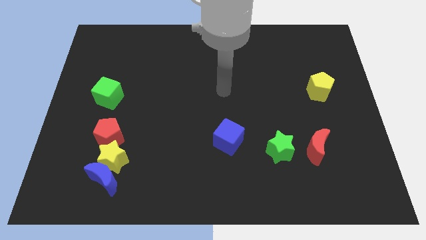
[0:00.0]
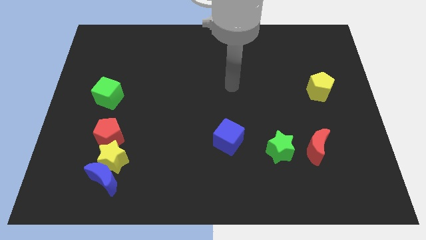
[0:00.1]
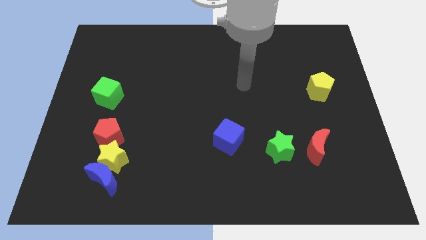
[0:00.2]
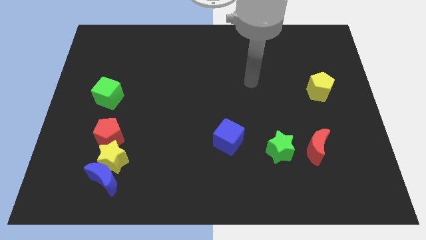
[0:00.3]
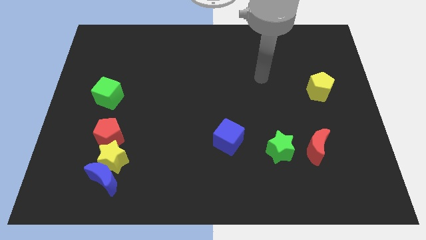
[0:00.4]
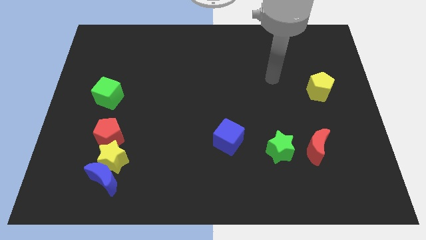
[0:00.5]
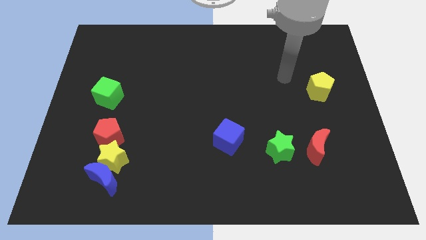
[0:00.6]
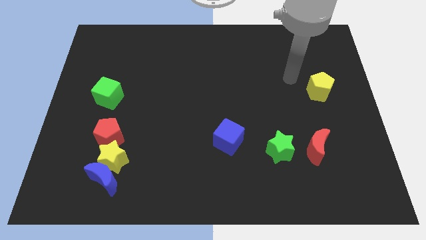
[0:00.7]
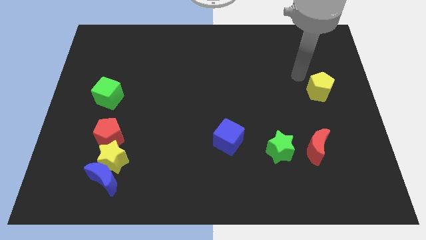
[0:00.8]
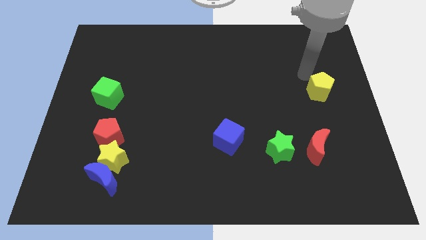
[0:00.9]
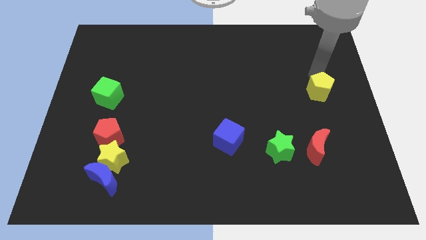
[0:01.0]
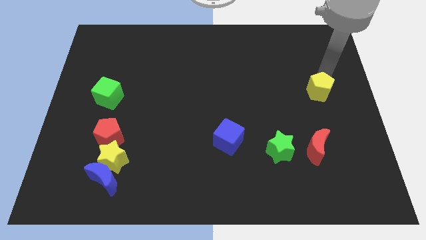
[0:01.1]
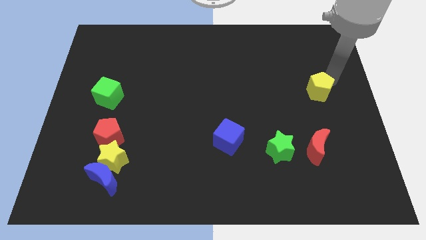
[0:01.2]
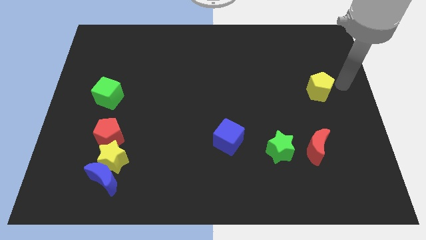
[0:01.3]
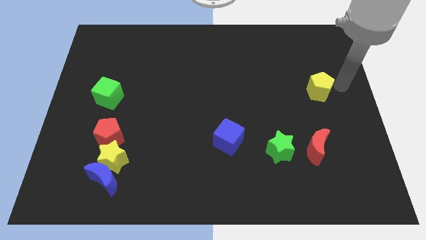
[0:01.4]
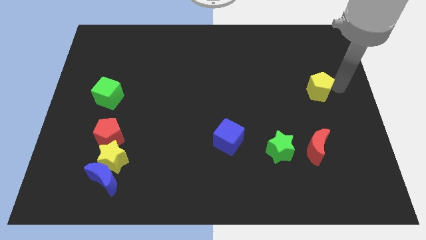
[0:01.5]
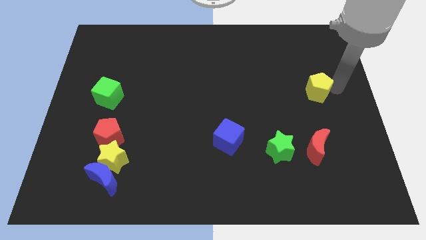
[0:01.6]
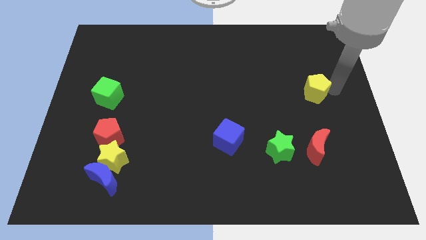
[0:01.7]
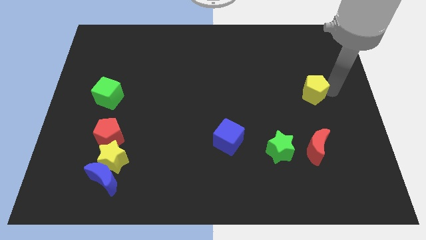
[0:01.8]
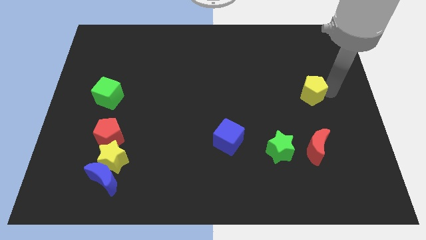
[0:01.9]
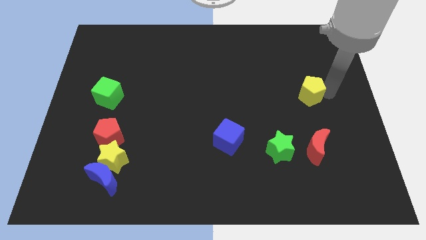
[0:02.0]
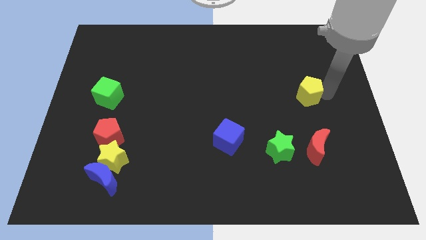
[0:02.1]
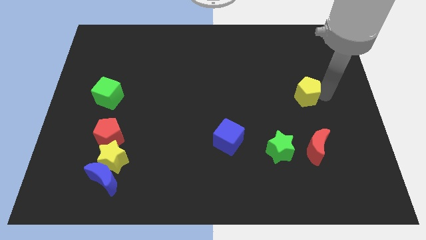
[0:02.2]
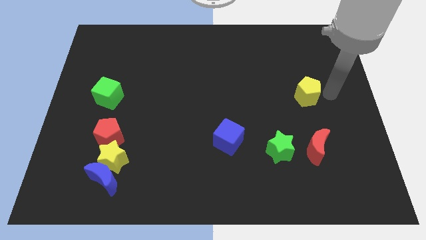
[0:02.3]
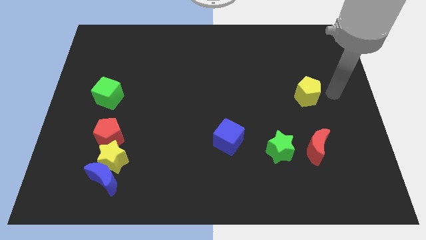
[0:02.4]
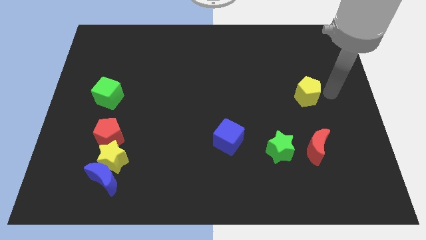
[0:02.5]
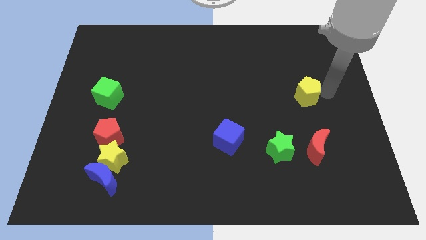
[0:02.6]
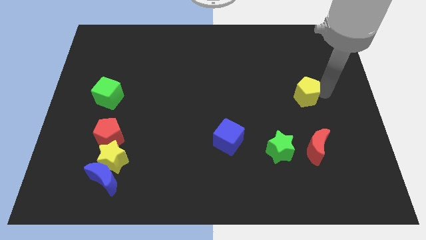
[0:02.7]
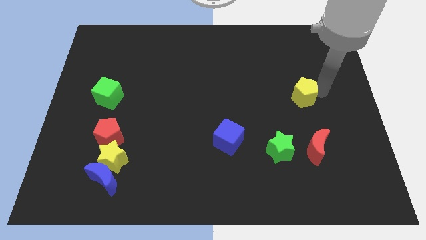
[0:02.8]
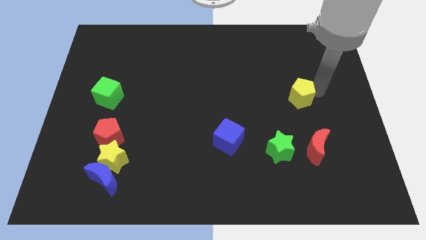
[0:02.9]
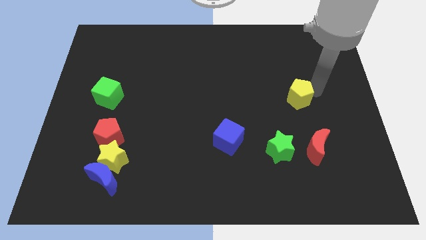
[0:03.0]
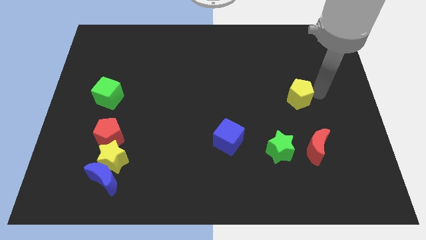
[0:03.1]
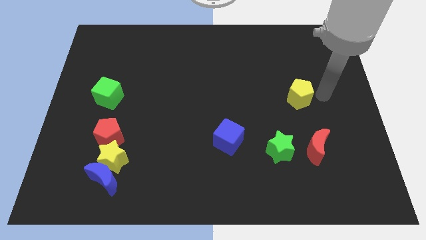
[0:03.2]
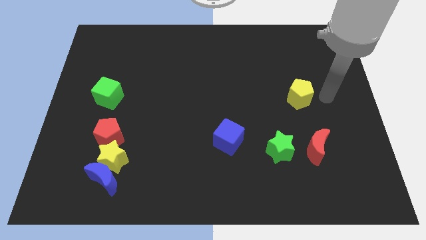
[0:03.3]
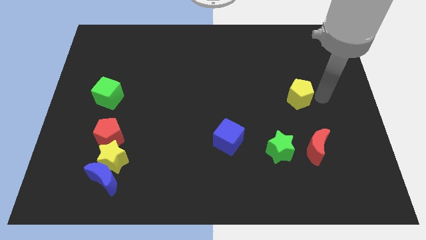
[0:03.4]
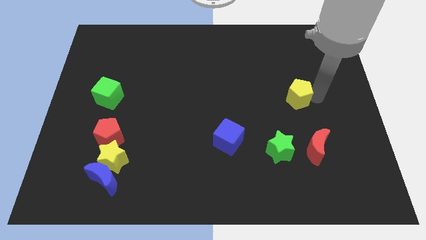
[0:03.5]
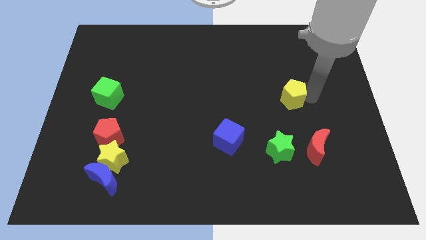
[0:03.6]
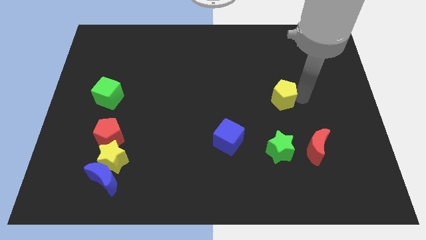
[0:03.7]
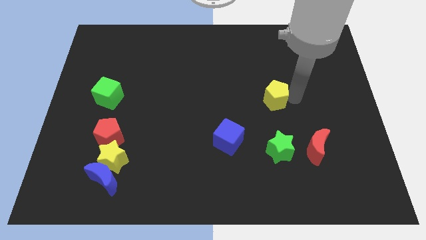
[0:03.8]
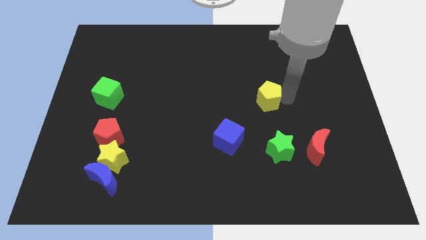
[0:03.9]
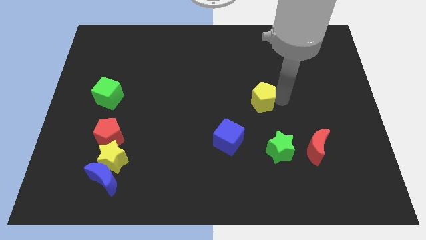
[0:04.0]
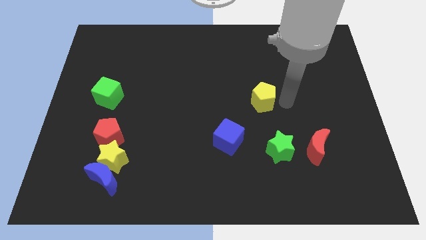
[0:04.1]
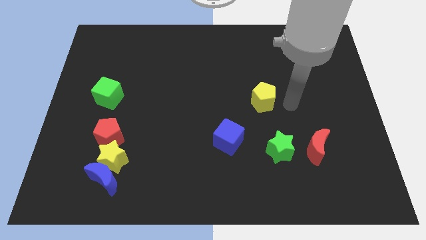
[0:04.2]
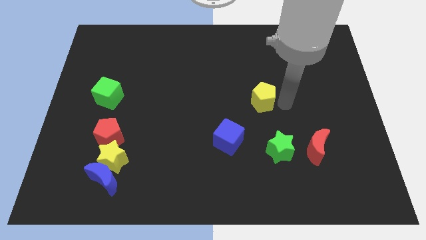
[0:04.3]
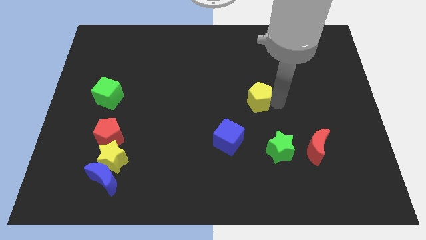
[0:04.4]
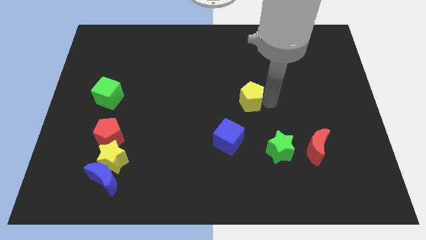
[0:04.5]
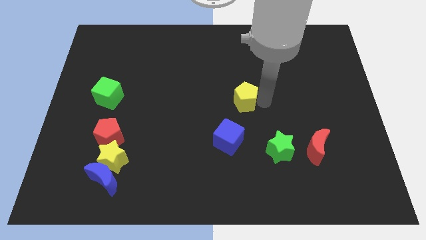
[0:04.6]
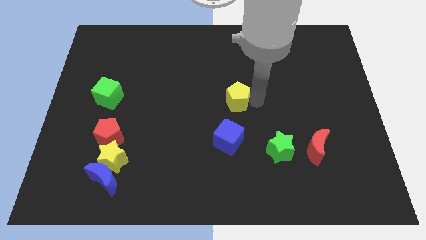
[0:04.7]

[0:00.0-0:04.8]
slide the yellow pentagon left

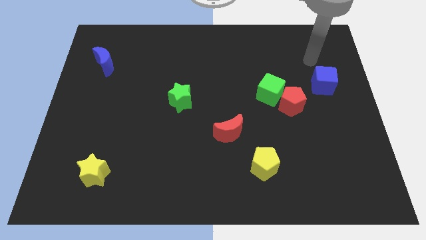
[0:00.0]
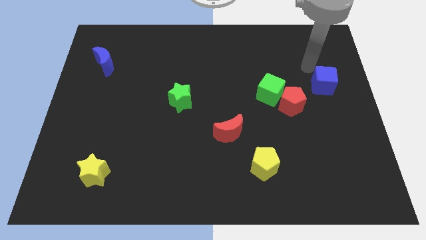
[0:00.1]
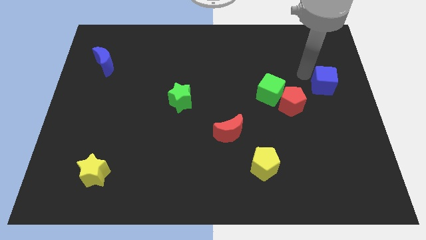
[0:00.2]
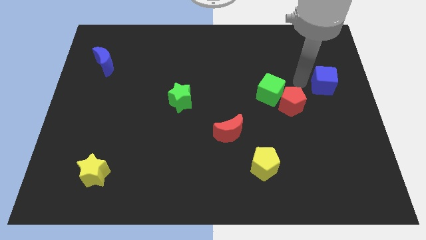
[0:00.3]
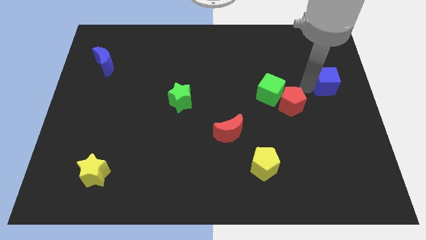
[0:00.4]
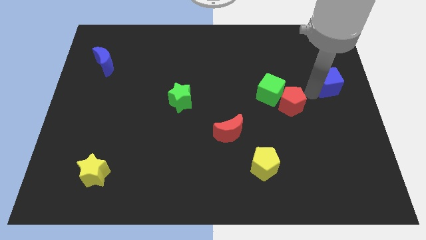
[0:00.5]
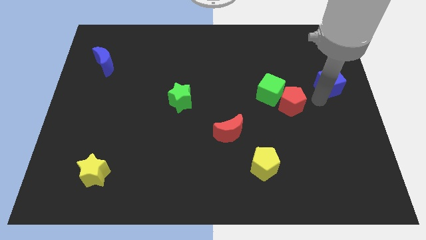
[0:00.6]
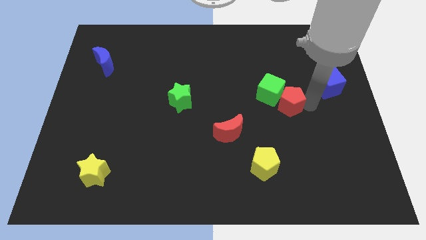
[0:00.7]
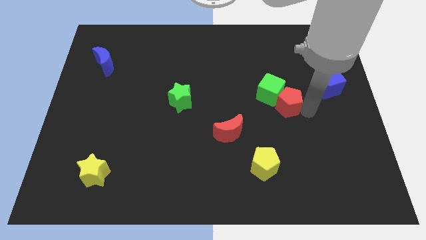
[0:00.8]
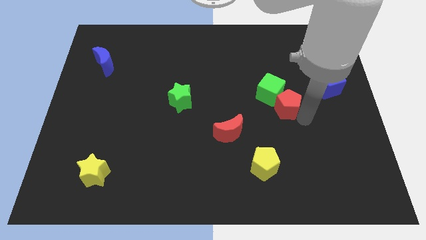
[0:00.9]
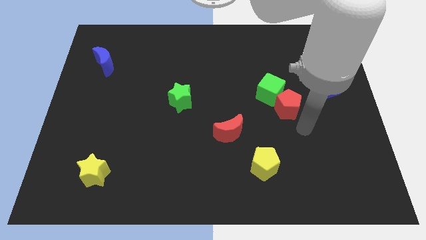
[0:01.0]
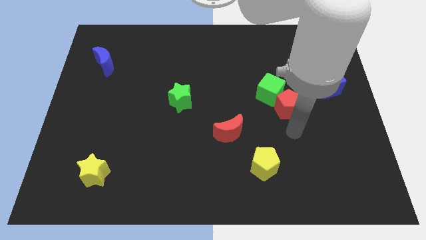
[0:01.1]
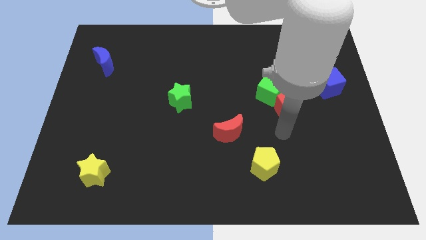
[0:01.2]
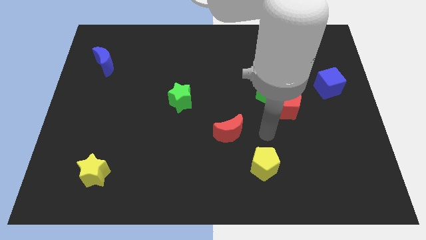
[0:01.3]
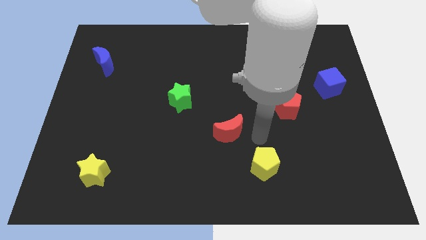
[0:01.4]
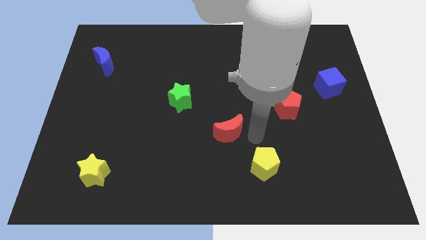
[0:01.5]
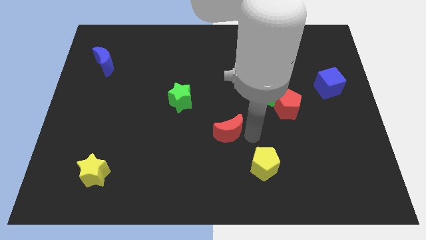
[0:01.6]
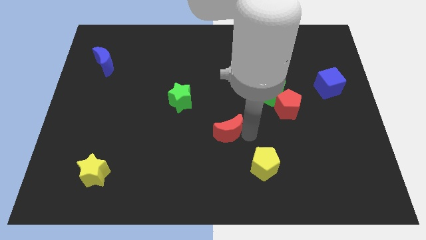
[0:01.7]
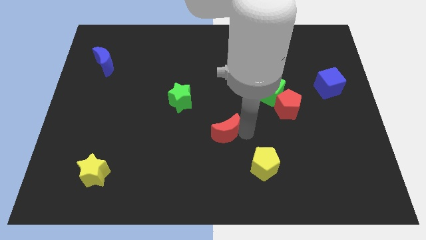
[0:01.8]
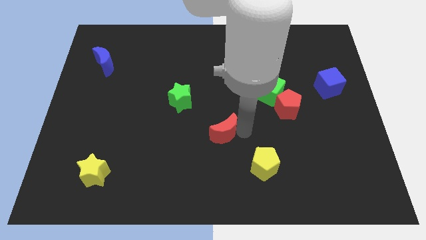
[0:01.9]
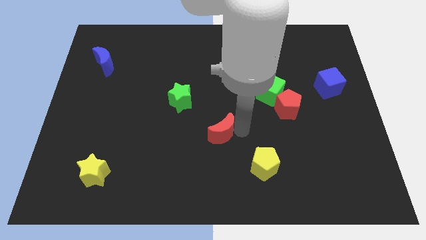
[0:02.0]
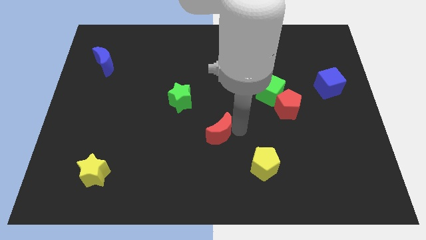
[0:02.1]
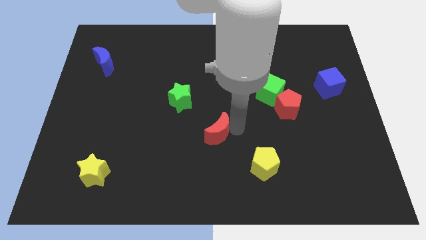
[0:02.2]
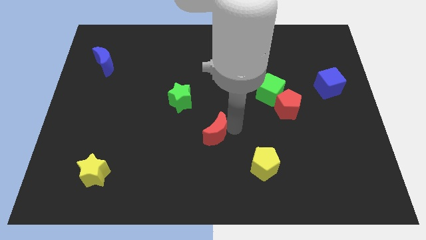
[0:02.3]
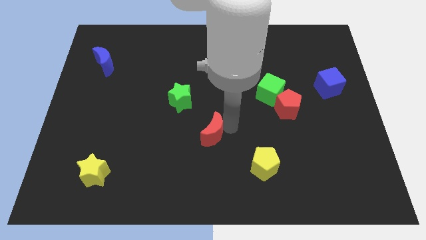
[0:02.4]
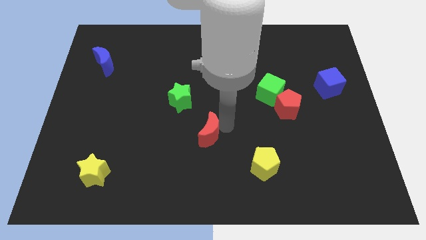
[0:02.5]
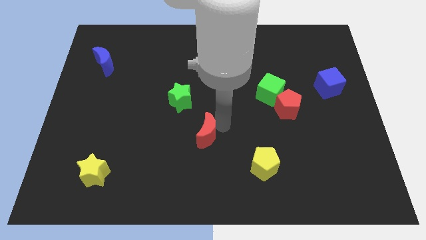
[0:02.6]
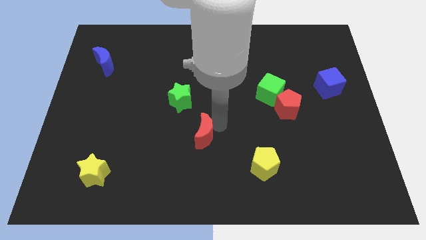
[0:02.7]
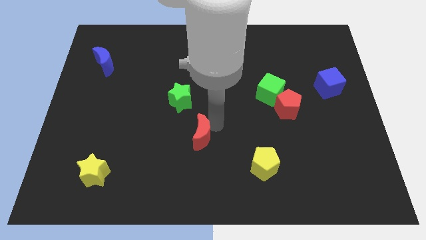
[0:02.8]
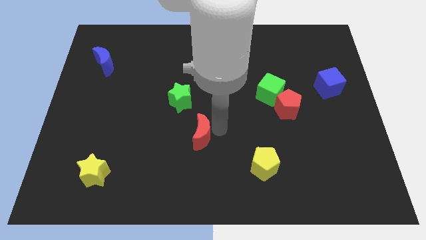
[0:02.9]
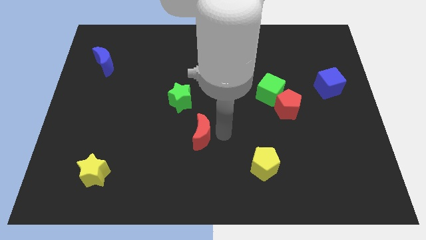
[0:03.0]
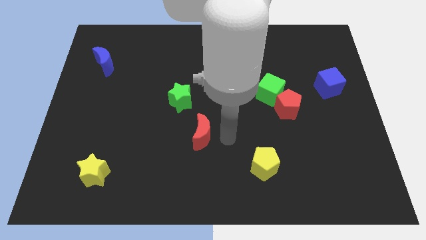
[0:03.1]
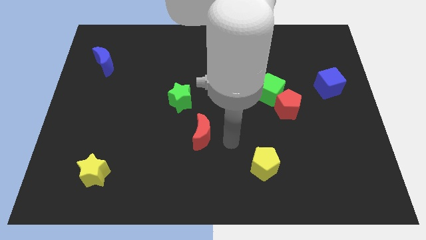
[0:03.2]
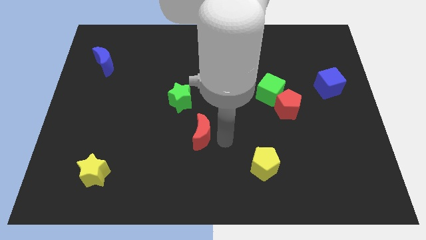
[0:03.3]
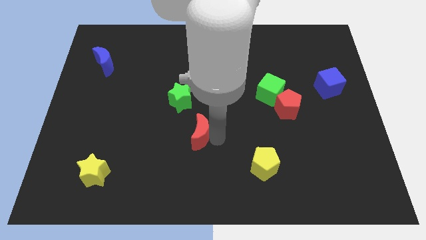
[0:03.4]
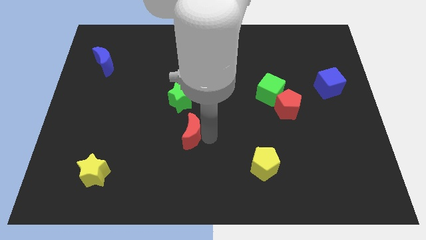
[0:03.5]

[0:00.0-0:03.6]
slightly move the red moon to the left
